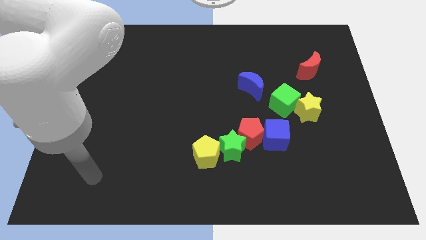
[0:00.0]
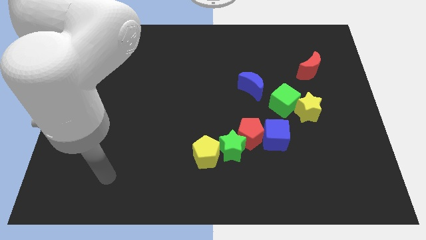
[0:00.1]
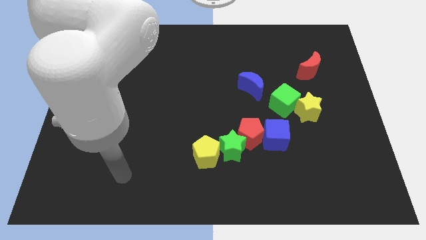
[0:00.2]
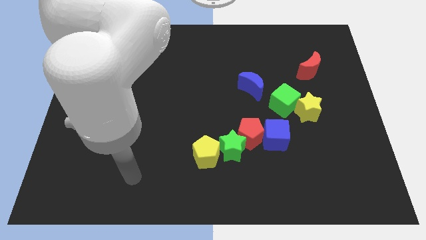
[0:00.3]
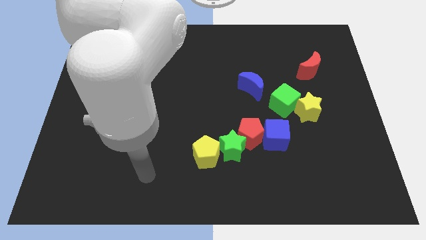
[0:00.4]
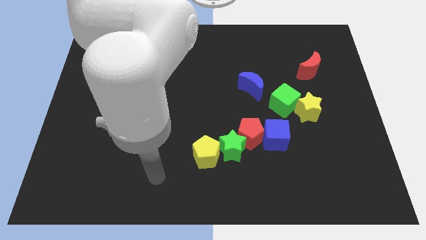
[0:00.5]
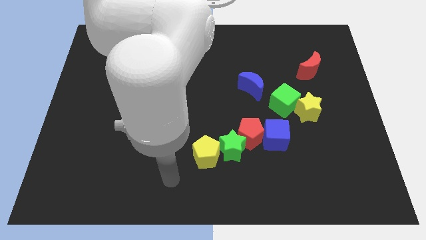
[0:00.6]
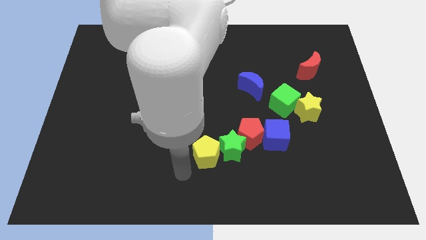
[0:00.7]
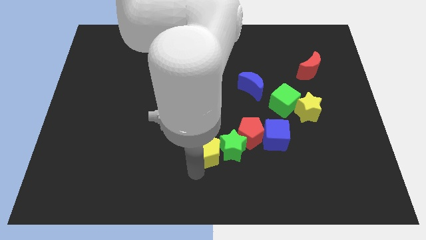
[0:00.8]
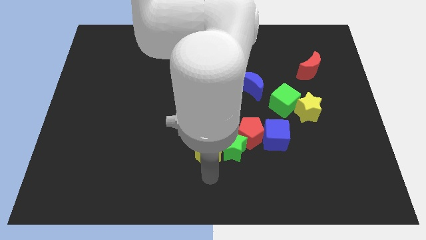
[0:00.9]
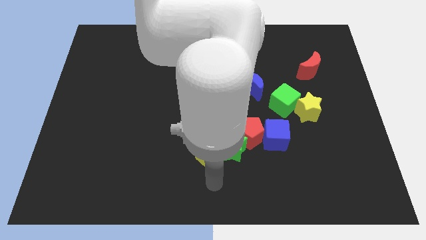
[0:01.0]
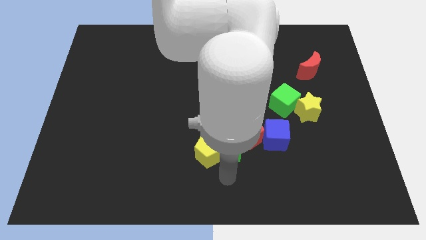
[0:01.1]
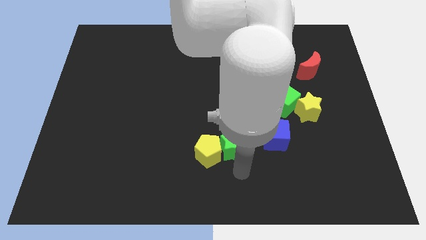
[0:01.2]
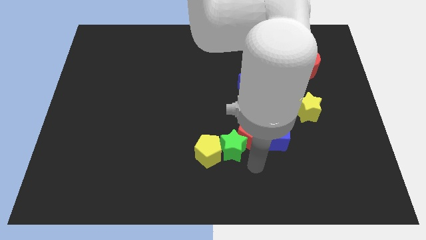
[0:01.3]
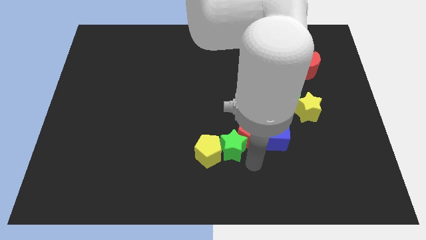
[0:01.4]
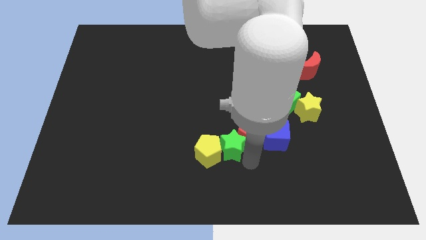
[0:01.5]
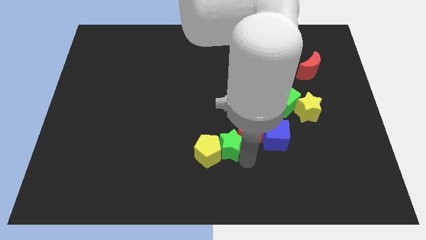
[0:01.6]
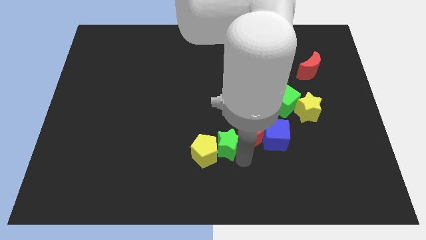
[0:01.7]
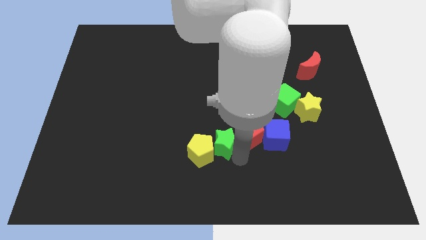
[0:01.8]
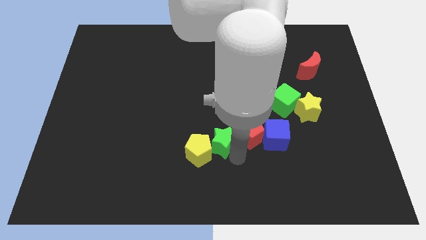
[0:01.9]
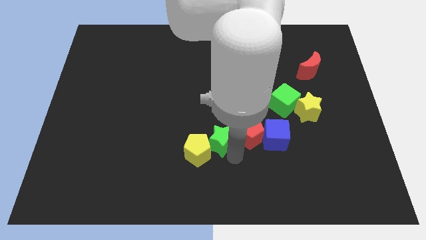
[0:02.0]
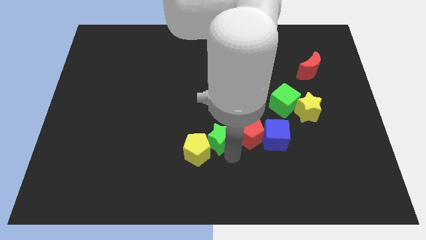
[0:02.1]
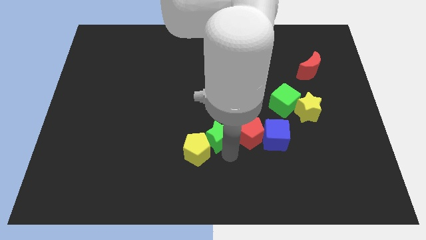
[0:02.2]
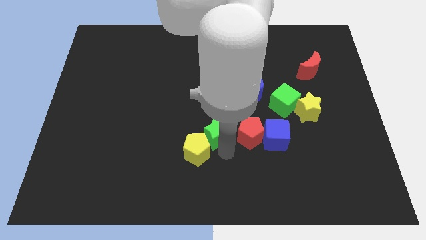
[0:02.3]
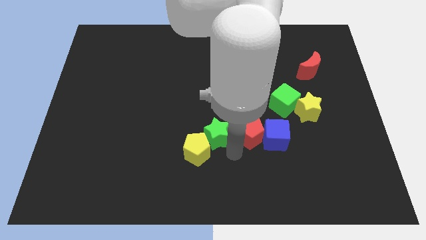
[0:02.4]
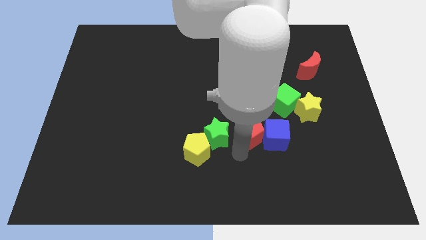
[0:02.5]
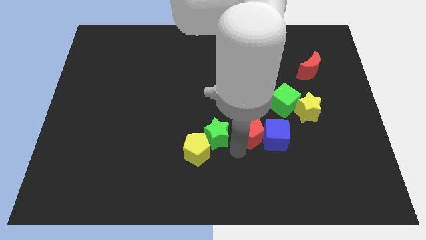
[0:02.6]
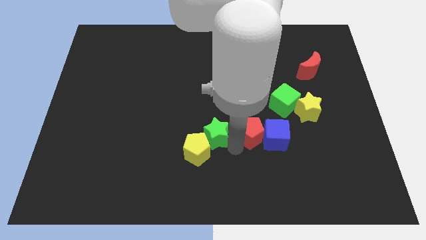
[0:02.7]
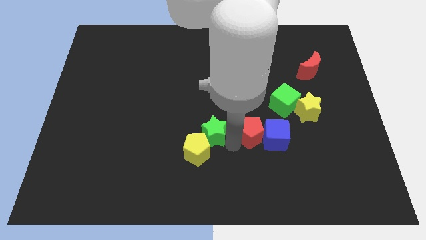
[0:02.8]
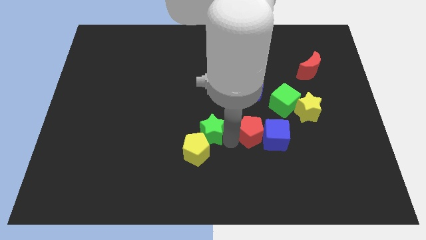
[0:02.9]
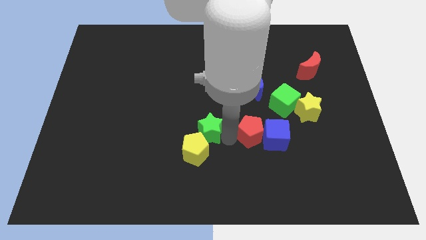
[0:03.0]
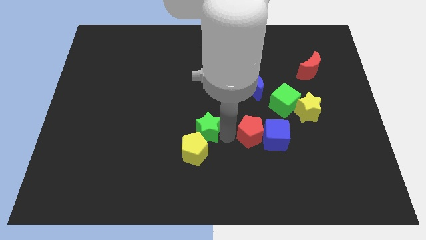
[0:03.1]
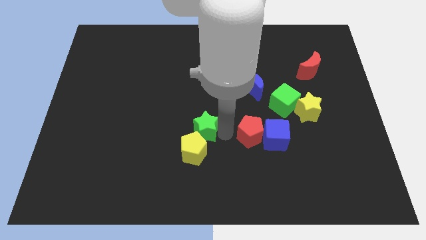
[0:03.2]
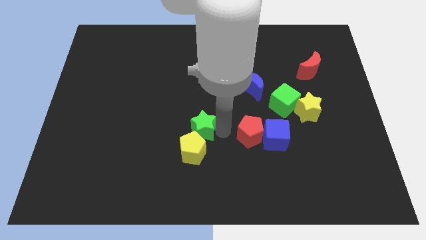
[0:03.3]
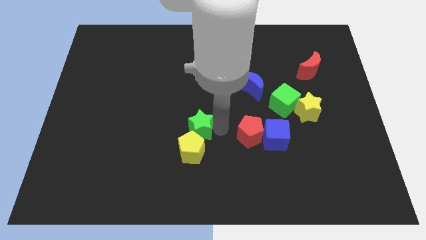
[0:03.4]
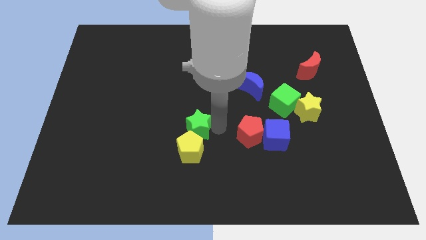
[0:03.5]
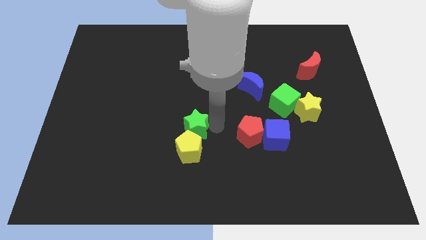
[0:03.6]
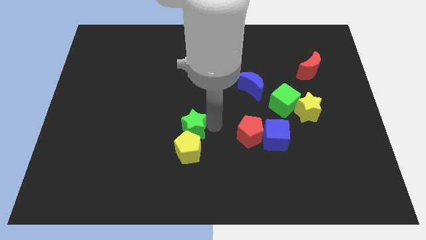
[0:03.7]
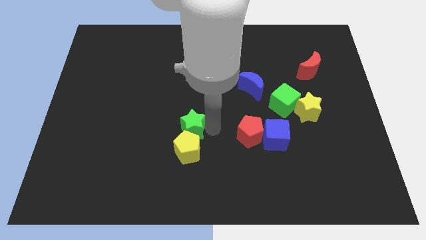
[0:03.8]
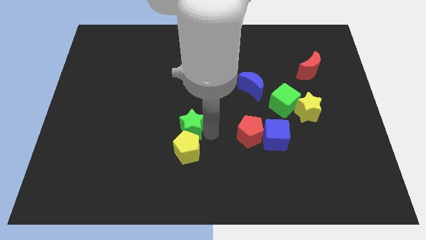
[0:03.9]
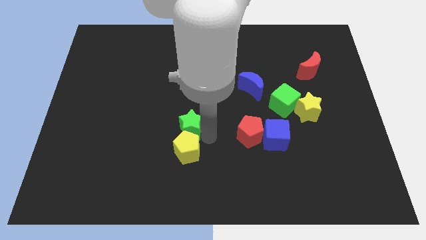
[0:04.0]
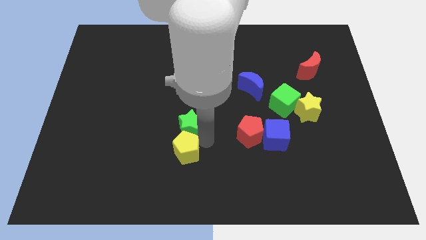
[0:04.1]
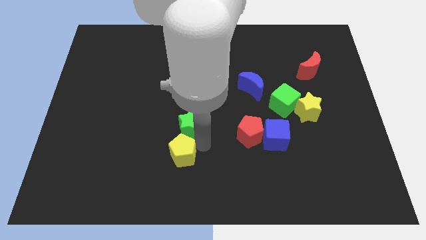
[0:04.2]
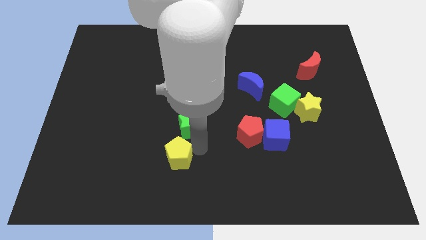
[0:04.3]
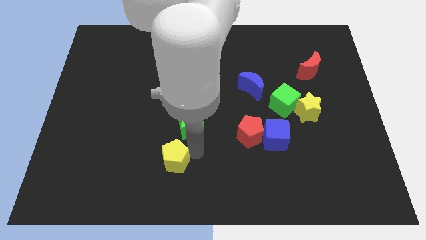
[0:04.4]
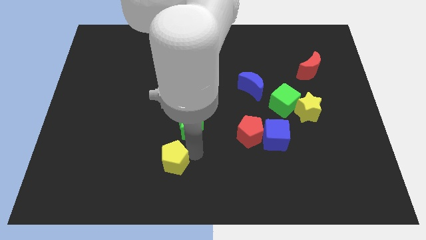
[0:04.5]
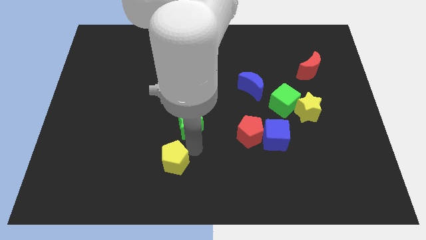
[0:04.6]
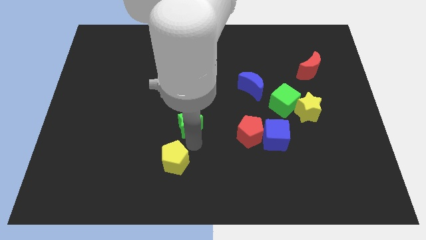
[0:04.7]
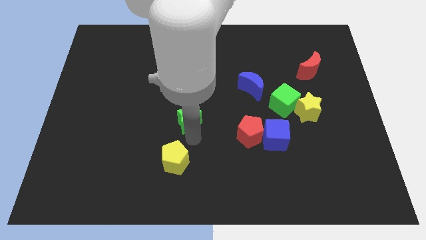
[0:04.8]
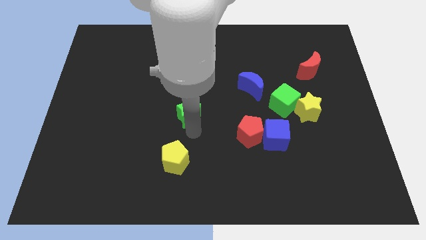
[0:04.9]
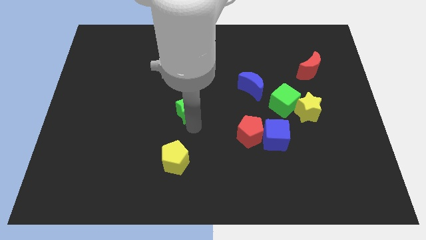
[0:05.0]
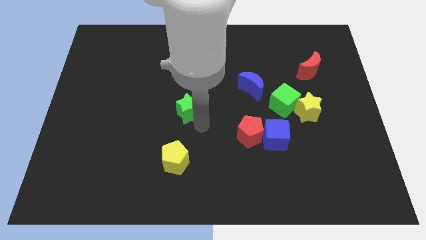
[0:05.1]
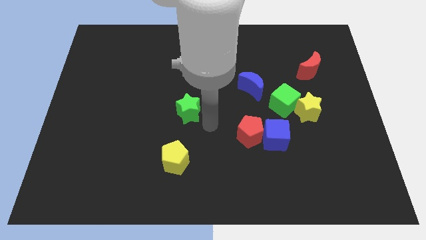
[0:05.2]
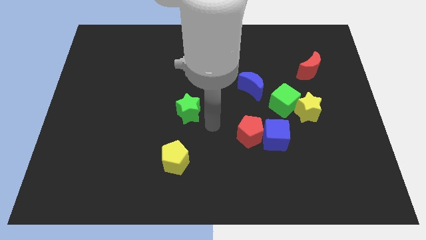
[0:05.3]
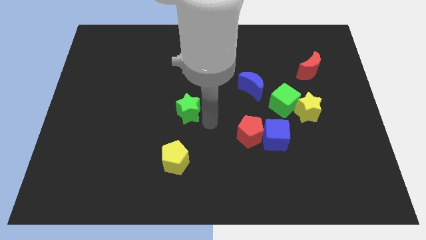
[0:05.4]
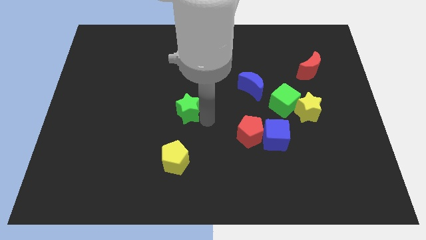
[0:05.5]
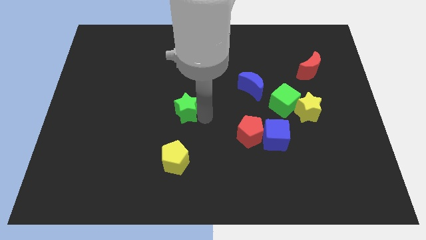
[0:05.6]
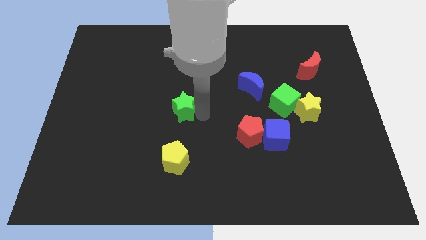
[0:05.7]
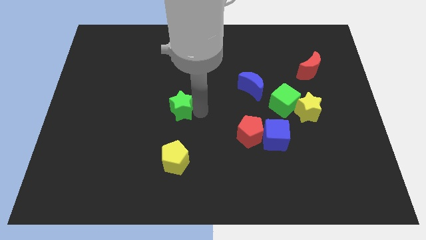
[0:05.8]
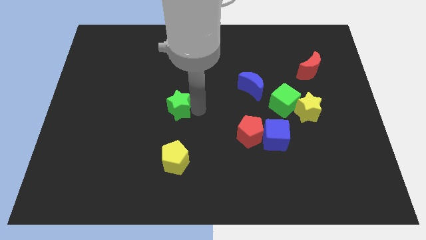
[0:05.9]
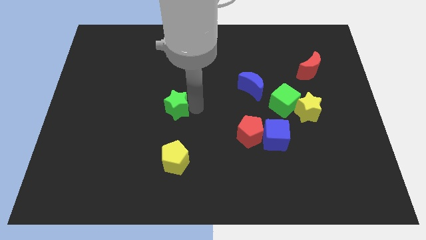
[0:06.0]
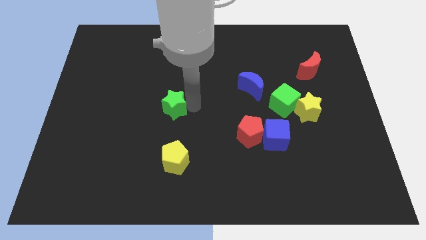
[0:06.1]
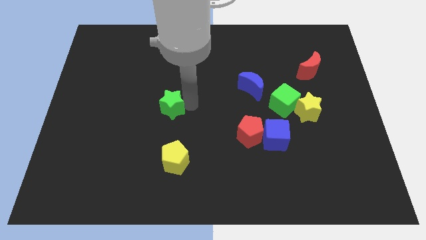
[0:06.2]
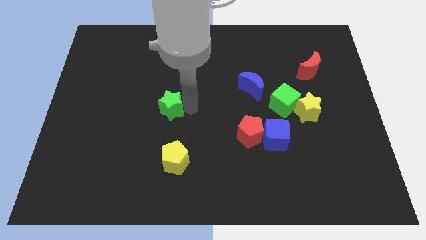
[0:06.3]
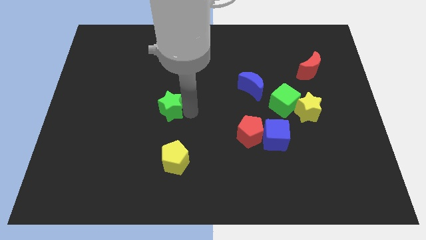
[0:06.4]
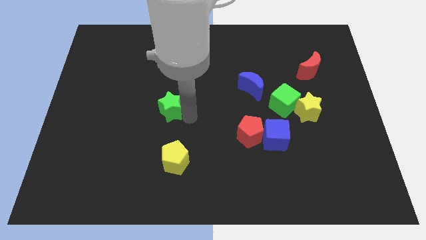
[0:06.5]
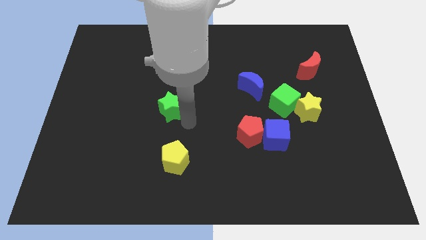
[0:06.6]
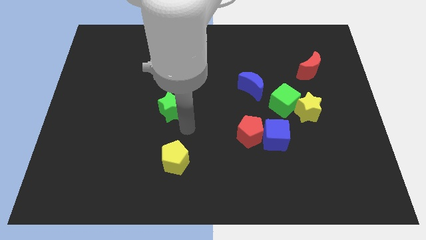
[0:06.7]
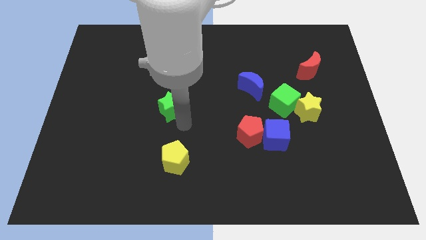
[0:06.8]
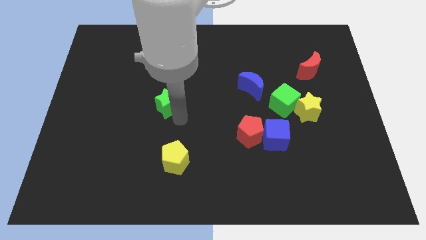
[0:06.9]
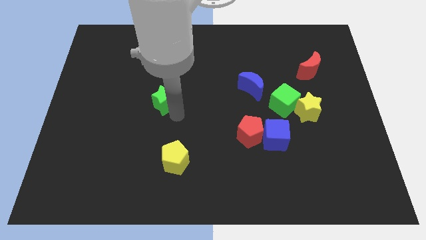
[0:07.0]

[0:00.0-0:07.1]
move the green star diagonally up and left

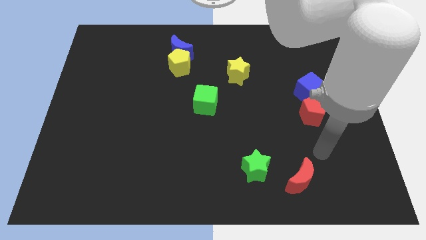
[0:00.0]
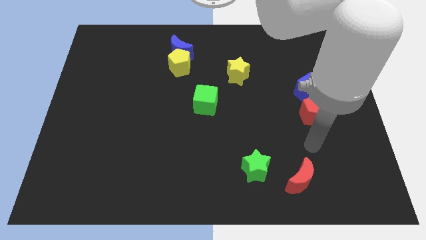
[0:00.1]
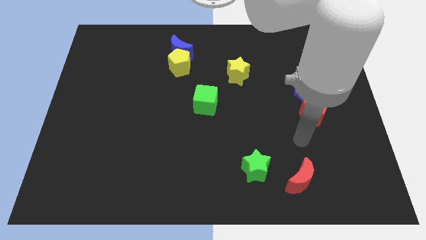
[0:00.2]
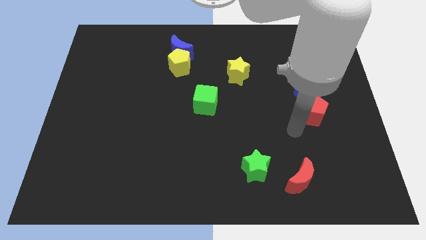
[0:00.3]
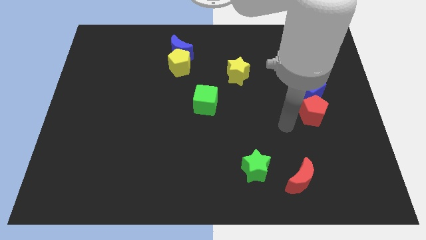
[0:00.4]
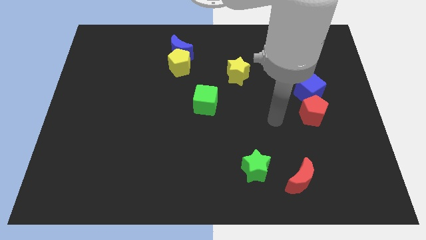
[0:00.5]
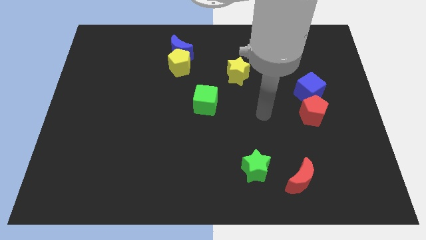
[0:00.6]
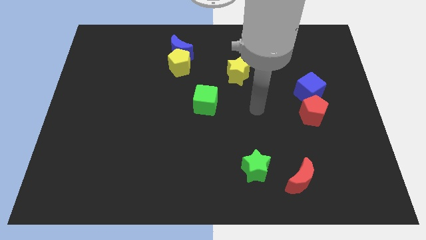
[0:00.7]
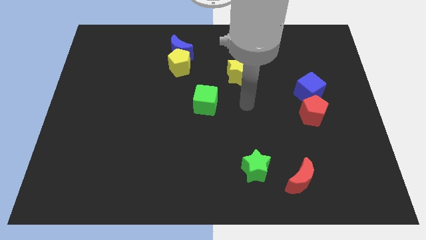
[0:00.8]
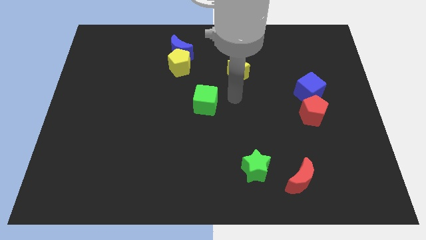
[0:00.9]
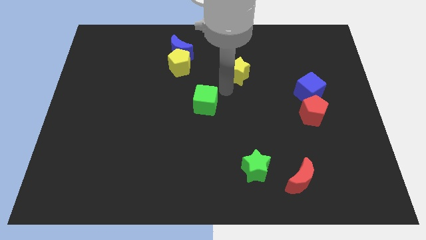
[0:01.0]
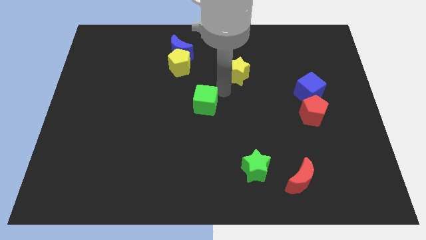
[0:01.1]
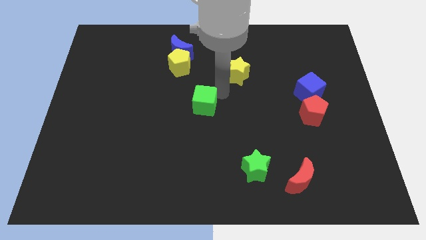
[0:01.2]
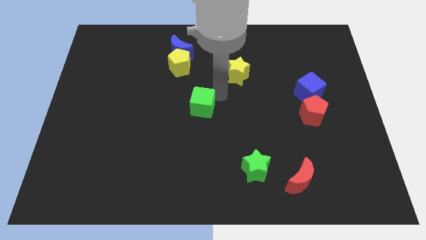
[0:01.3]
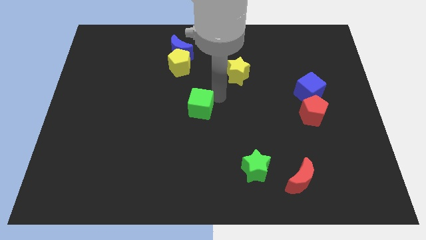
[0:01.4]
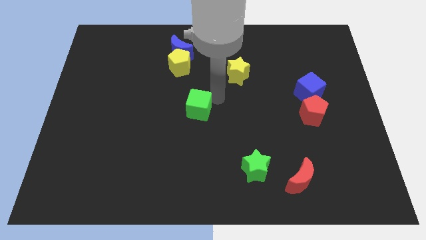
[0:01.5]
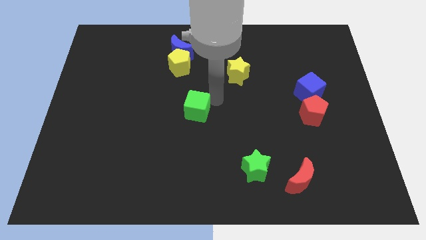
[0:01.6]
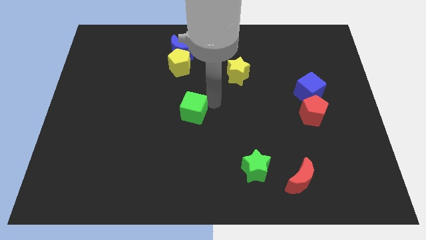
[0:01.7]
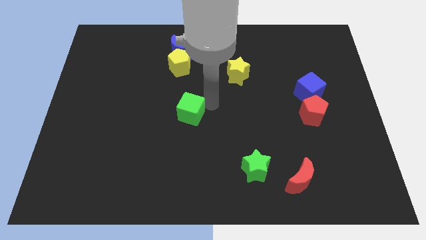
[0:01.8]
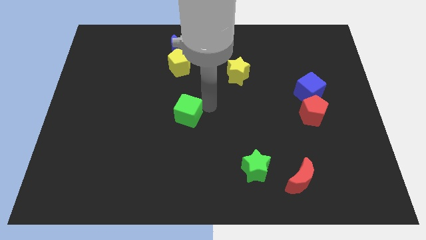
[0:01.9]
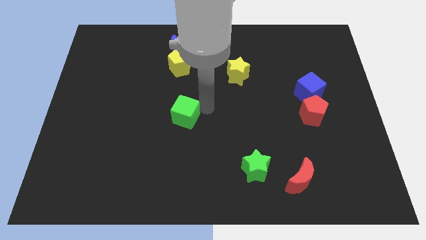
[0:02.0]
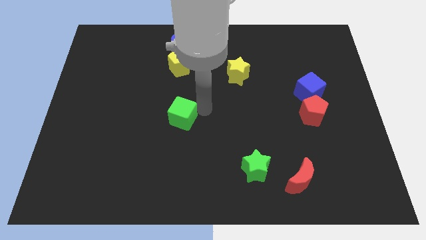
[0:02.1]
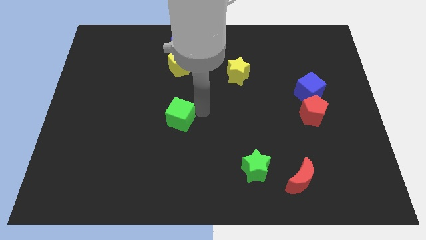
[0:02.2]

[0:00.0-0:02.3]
move the green cube downwards and left slightly
